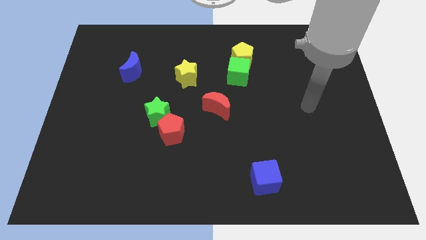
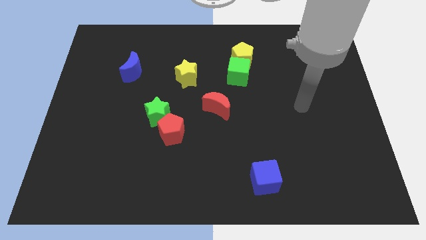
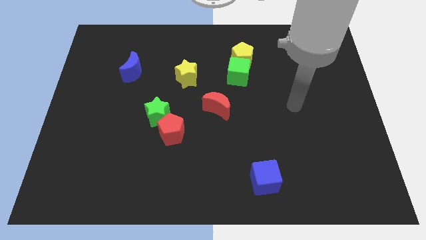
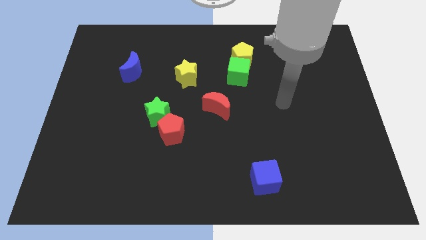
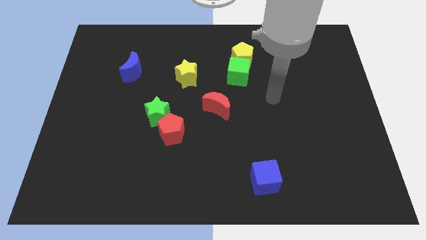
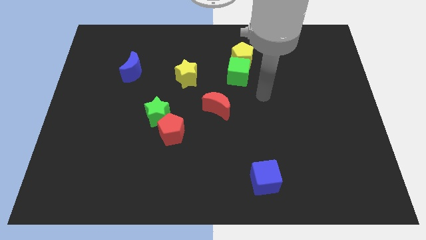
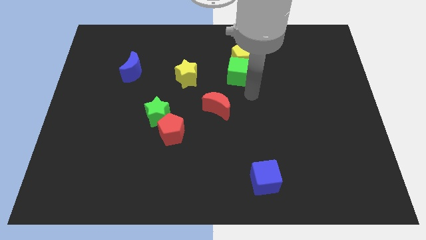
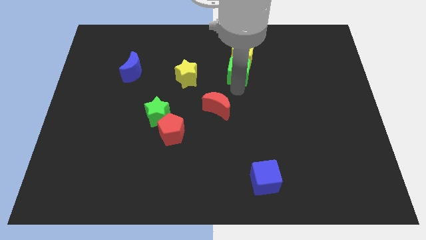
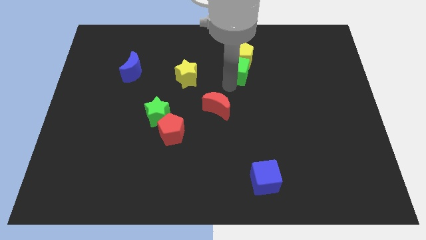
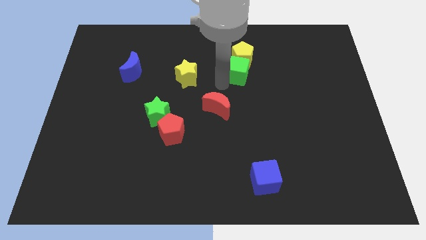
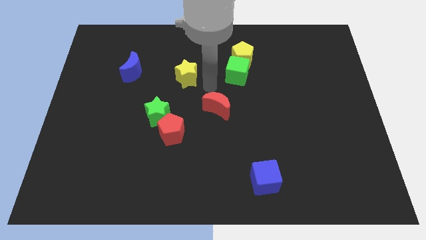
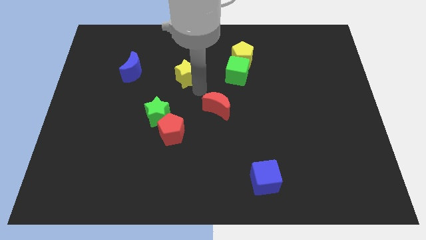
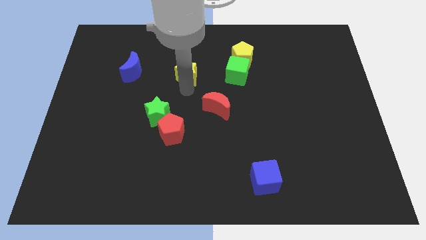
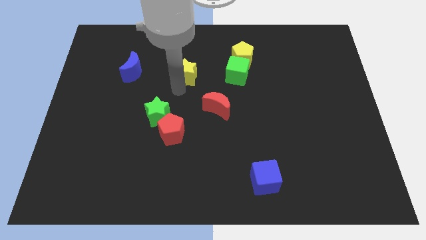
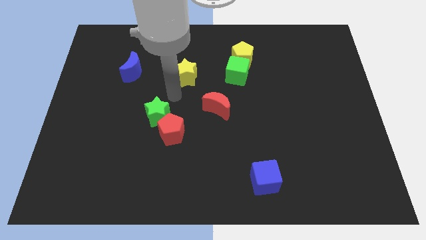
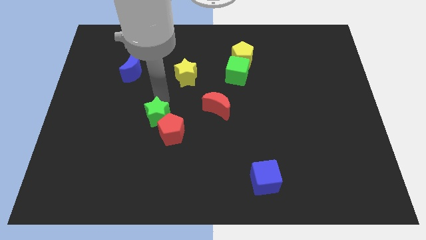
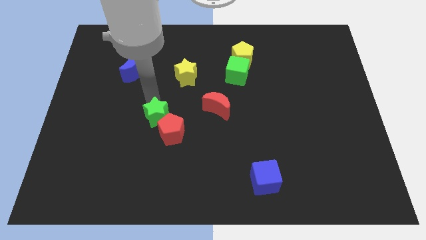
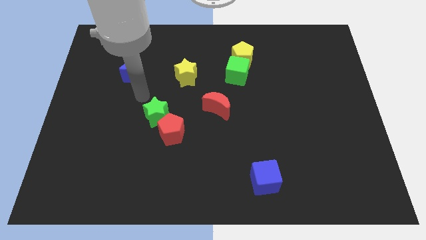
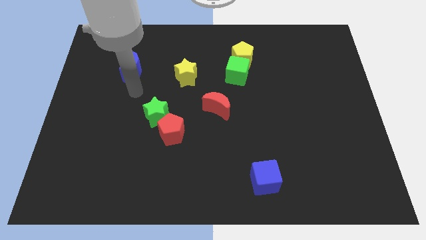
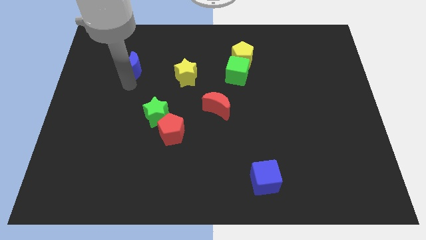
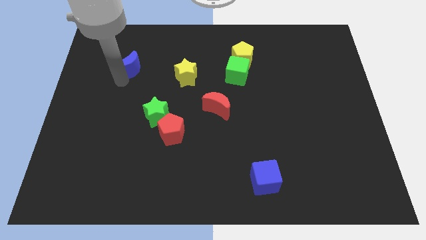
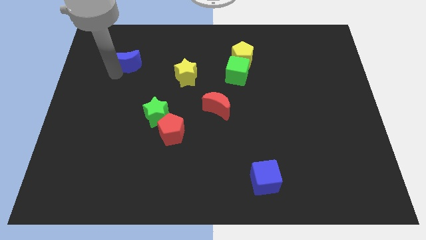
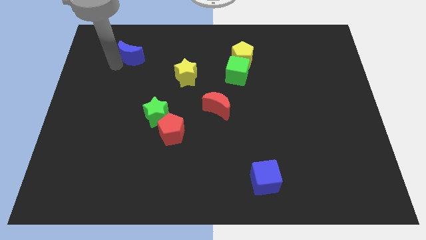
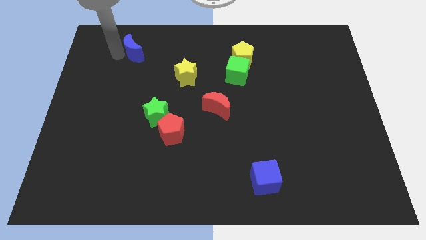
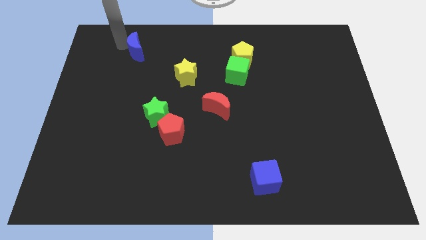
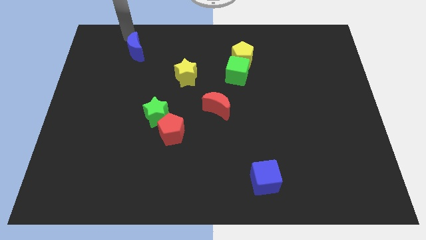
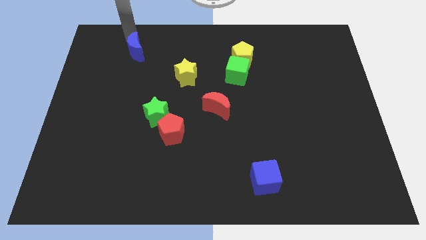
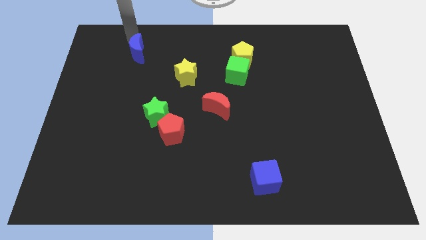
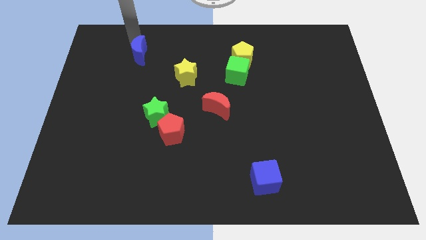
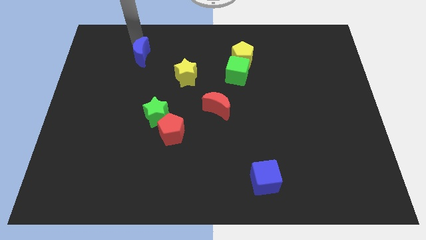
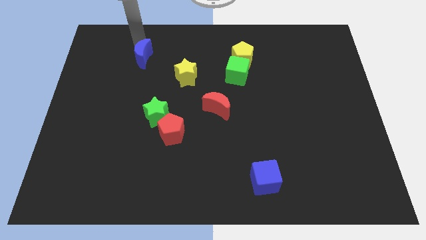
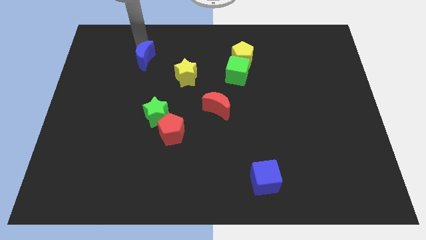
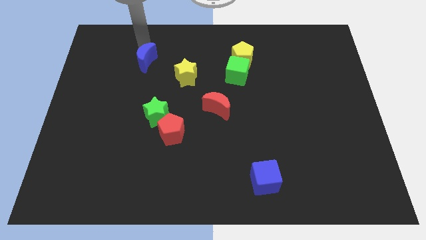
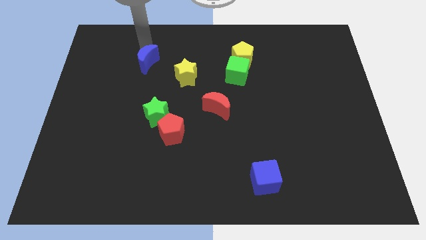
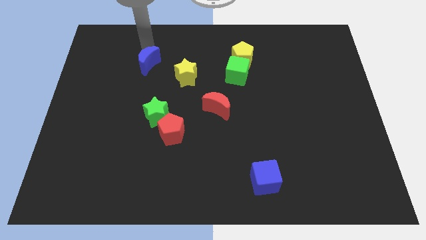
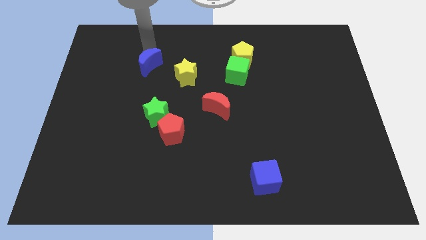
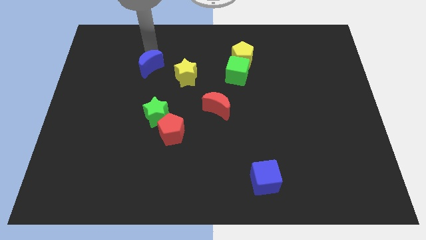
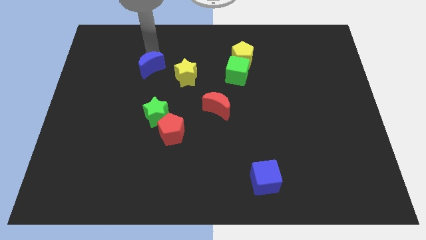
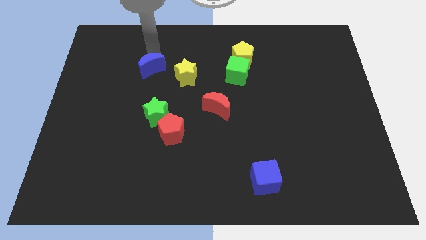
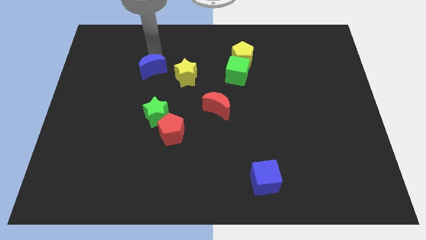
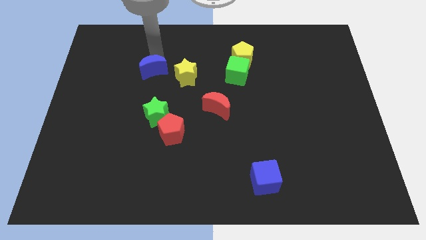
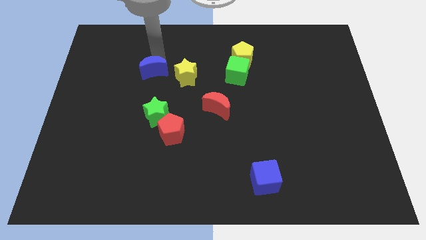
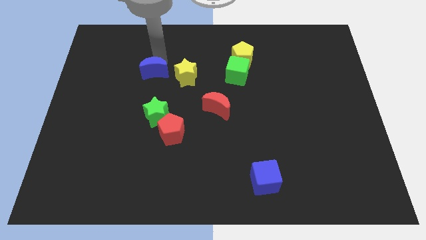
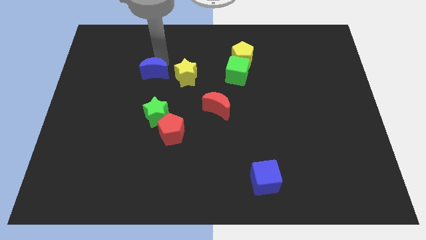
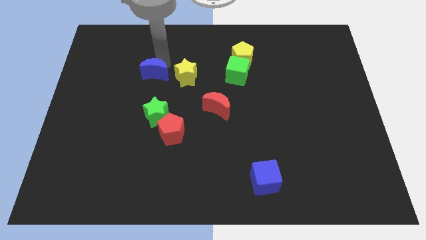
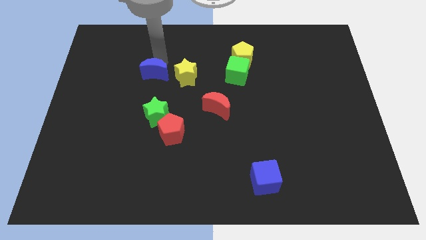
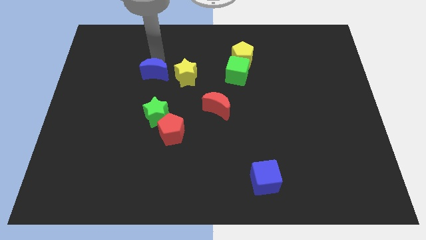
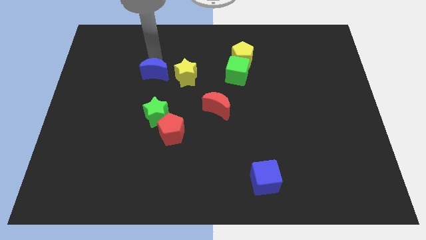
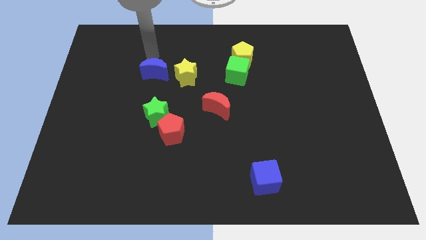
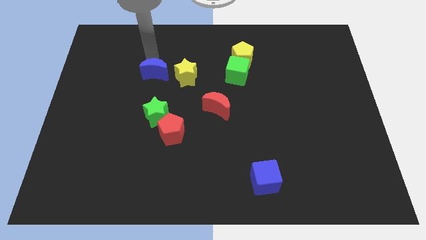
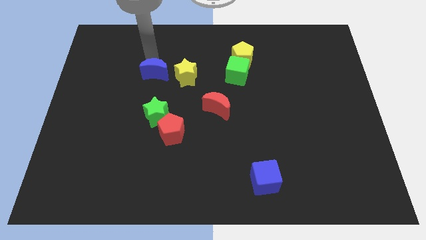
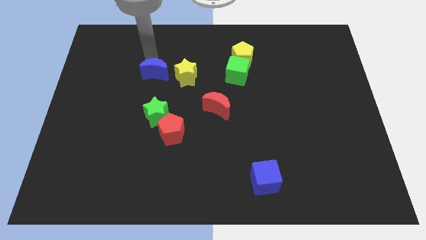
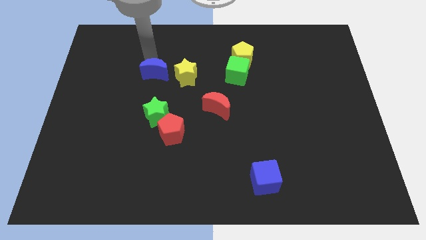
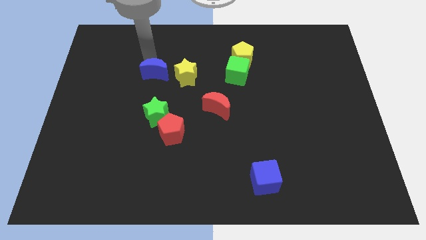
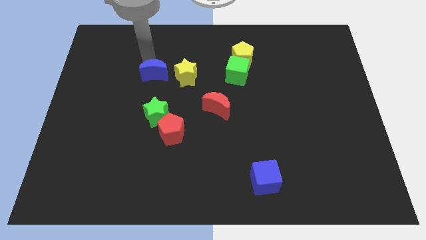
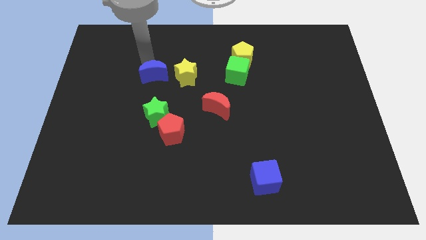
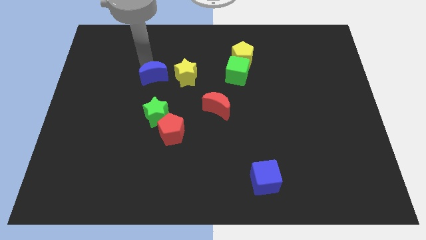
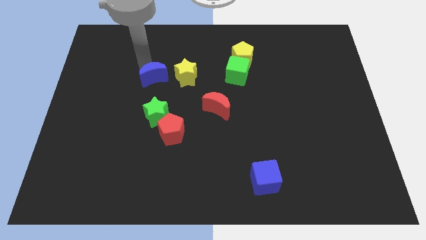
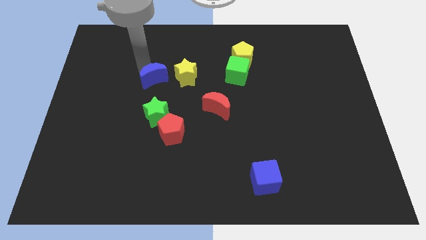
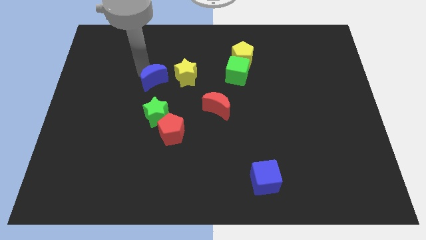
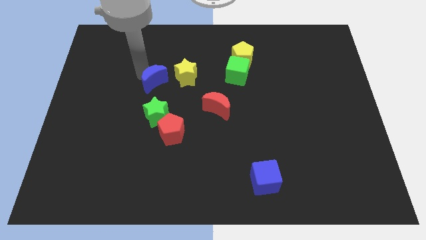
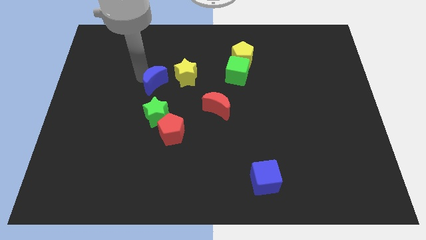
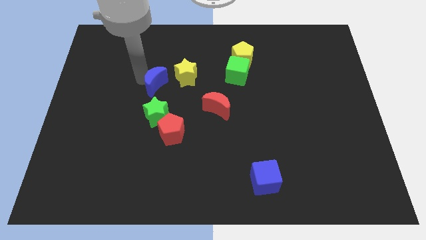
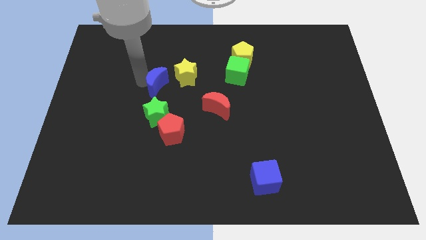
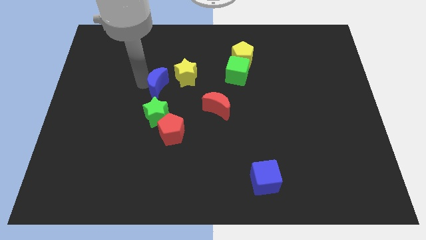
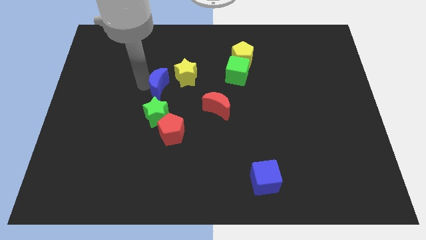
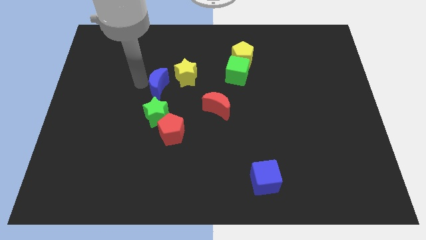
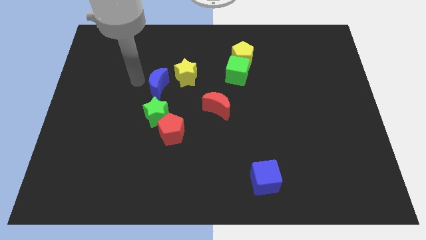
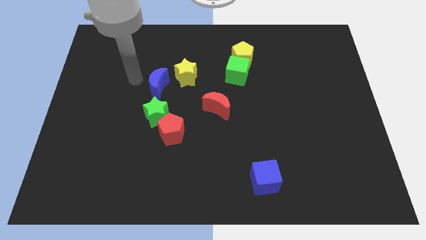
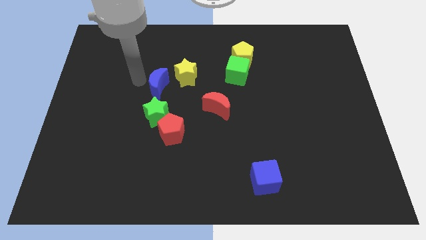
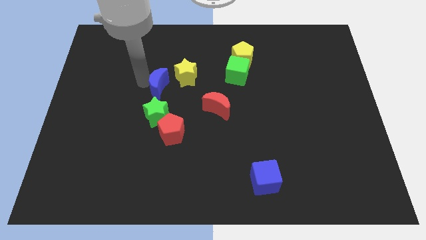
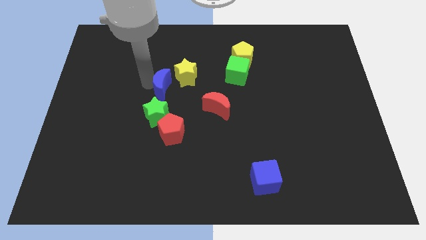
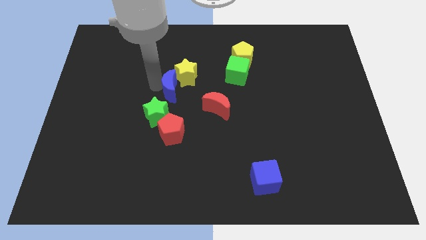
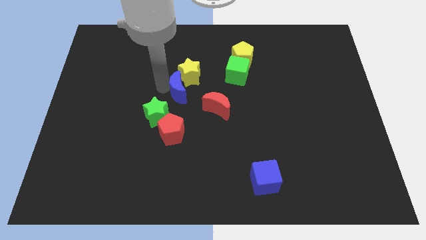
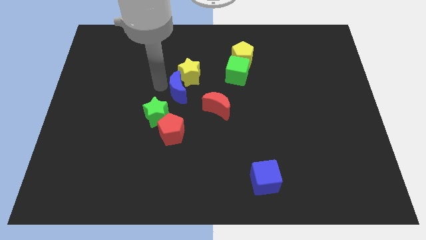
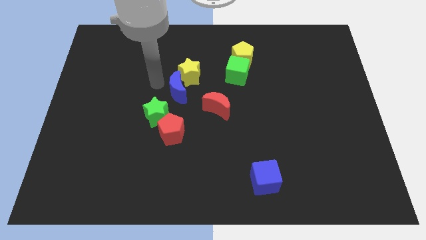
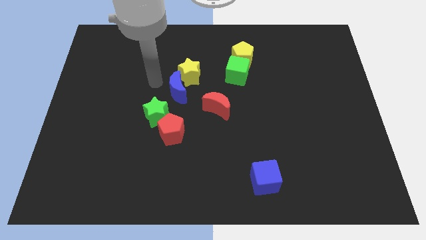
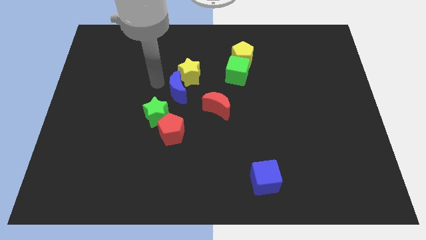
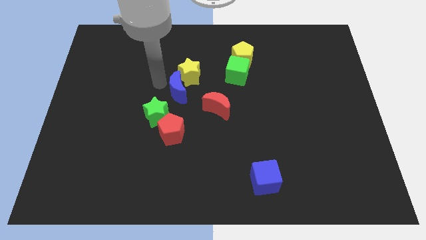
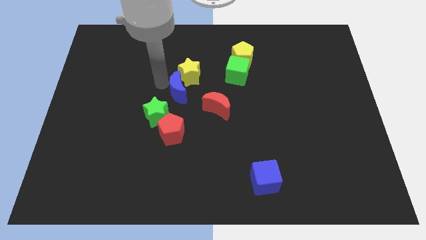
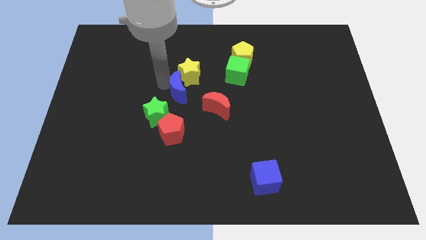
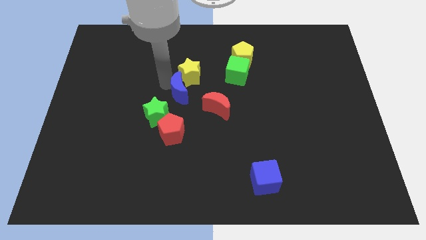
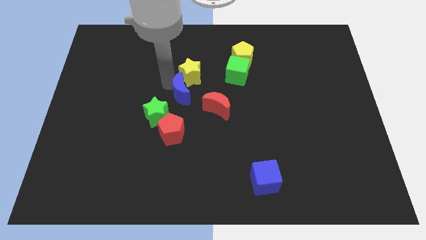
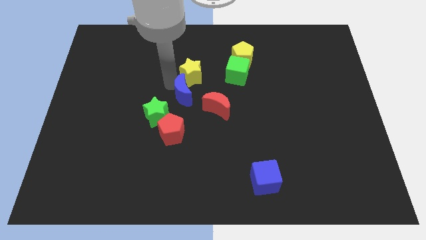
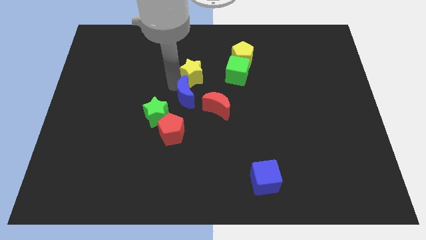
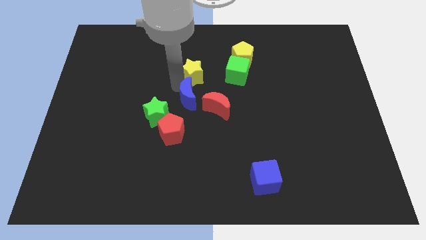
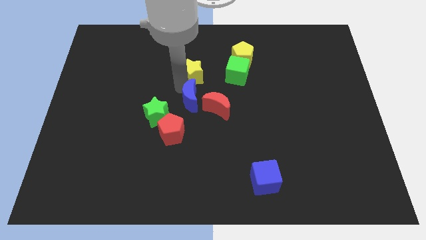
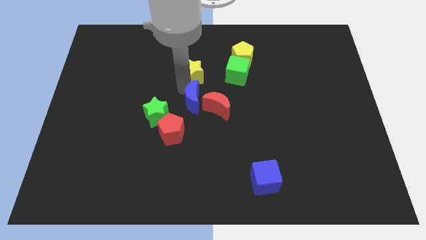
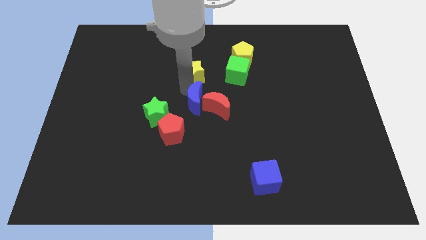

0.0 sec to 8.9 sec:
push the blue moon to the red moon
